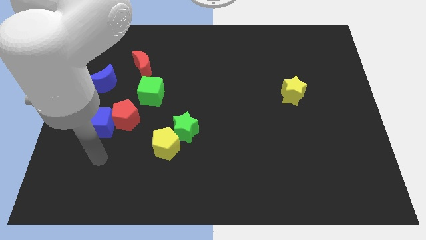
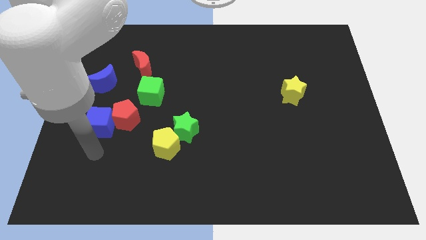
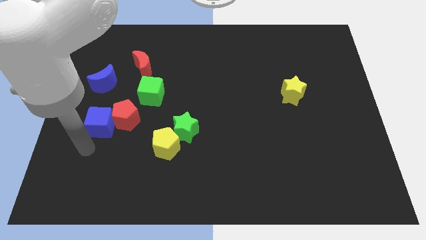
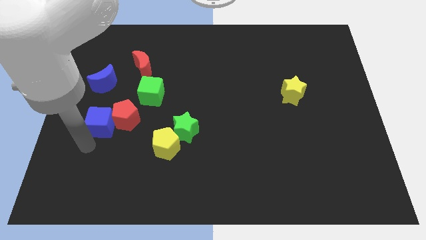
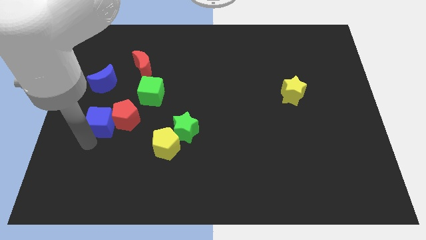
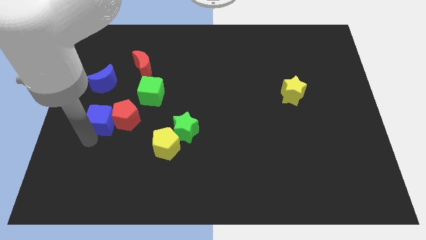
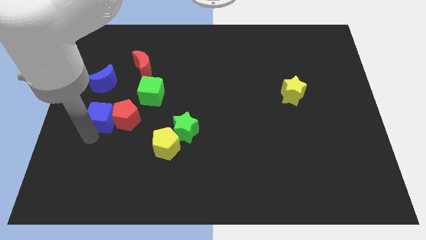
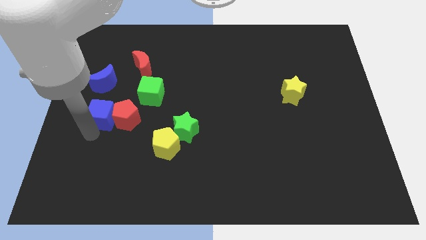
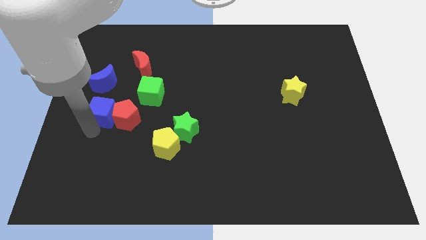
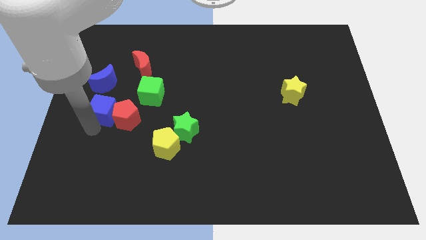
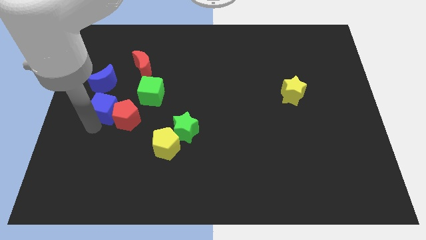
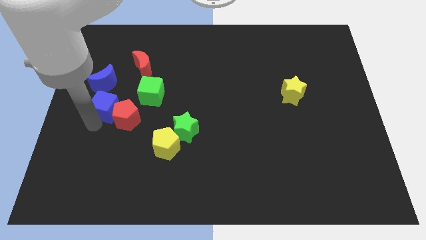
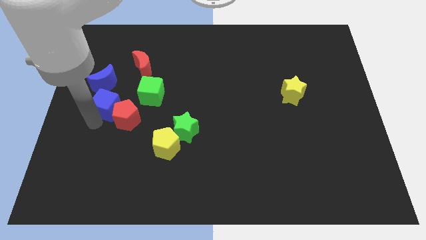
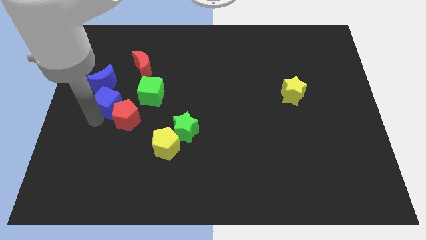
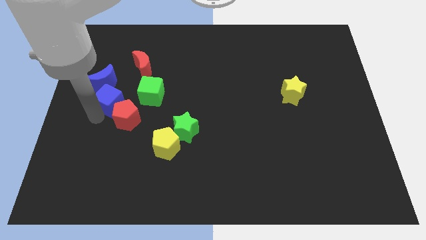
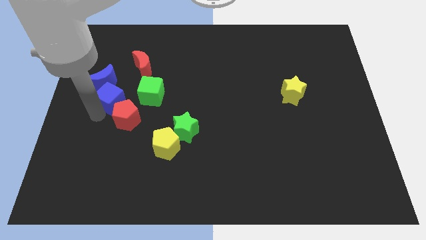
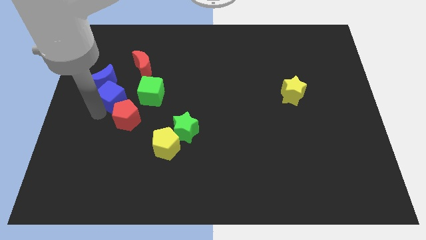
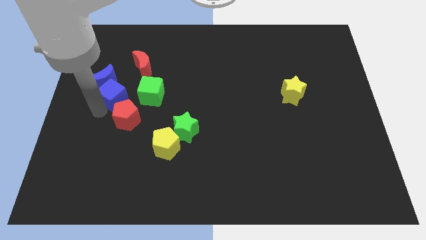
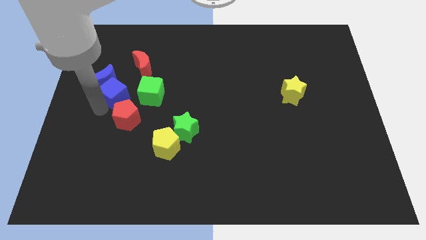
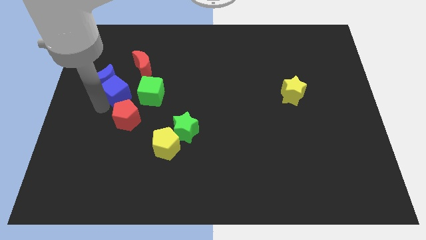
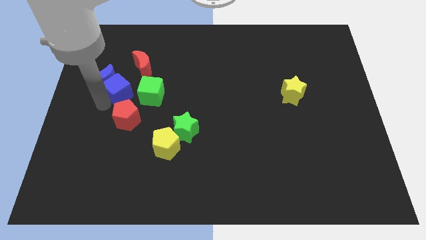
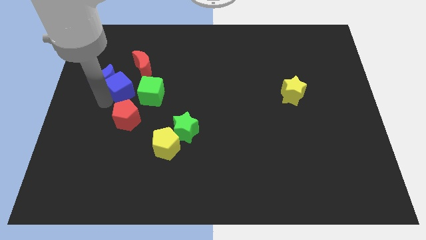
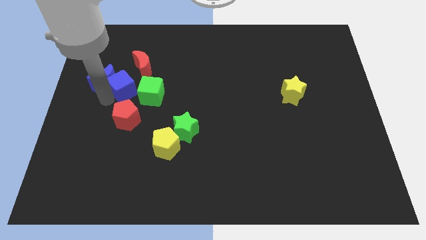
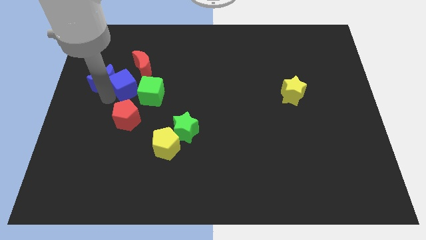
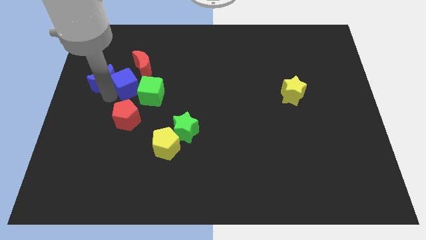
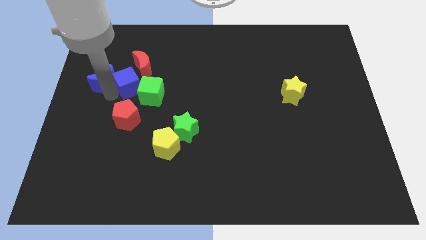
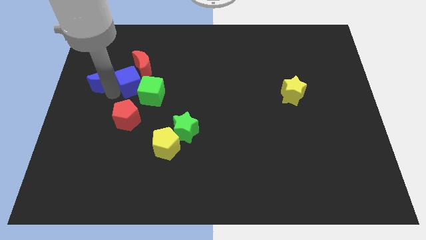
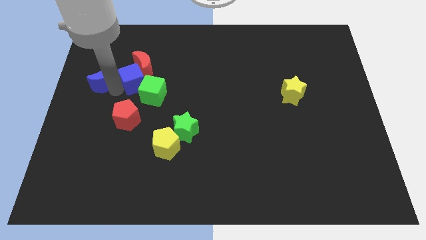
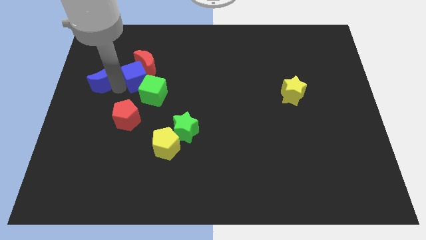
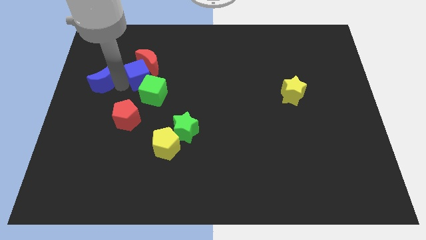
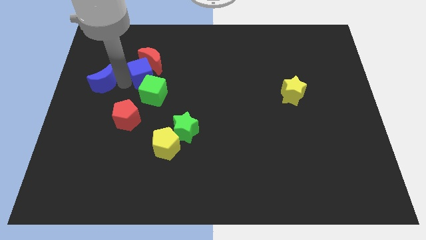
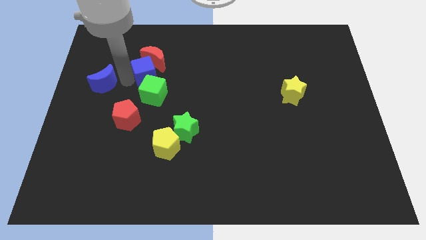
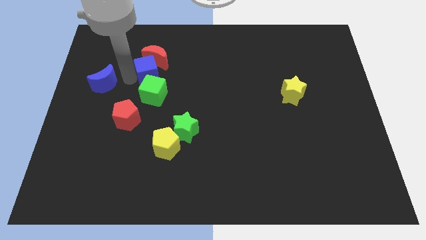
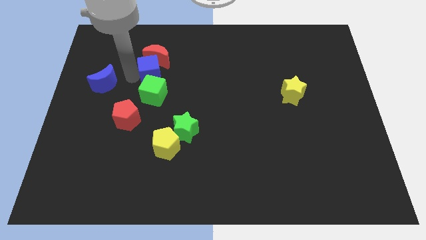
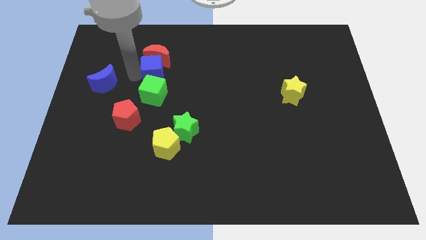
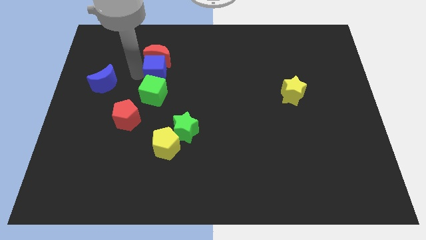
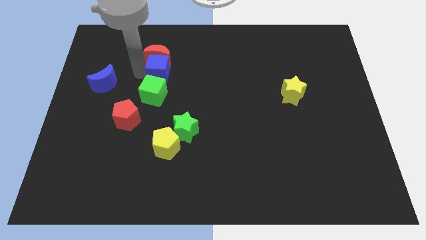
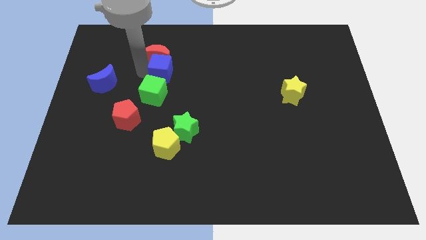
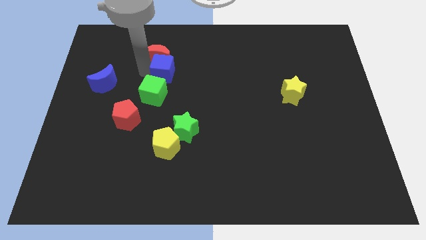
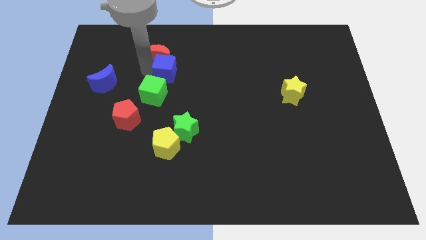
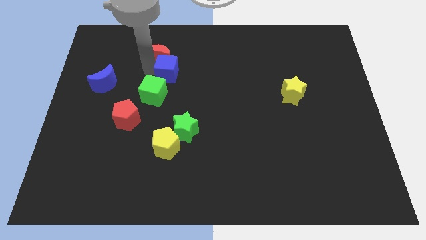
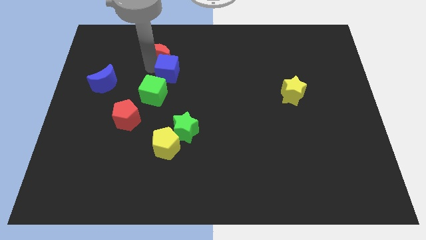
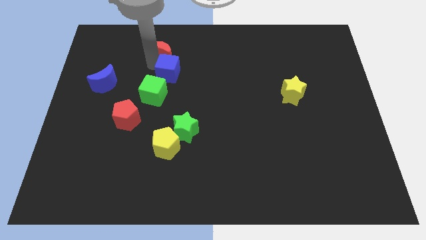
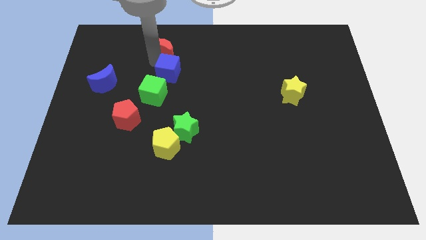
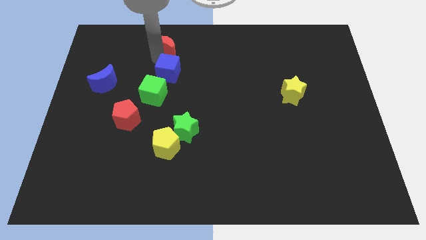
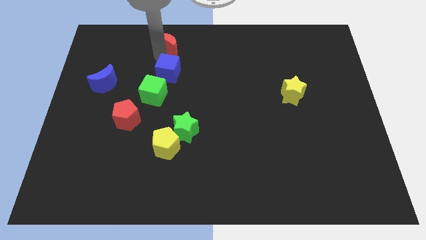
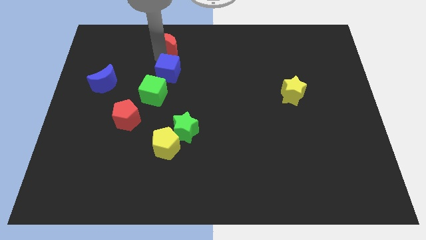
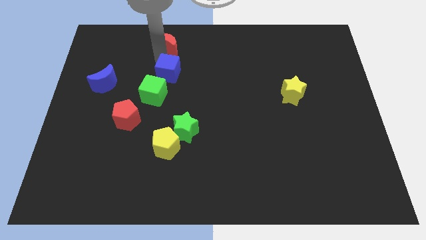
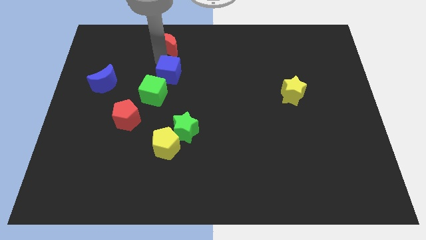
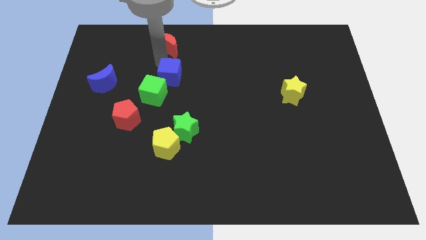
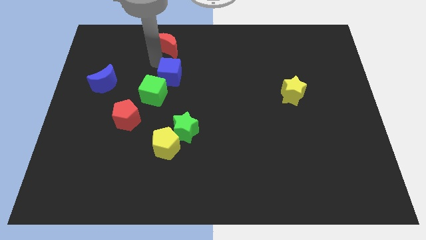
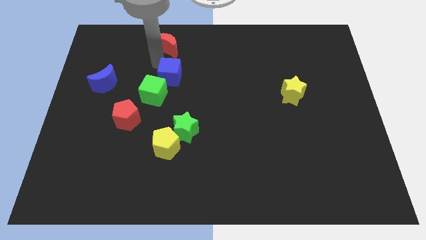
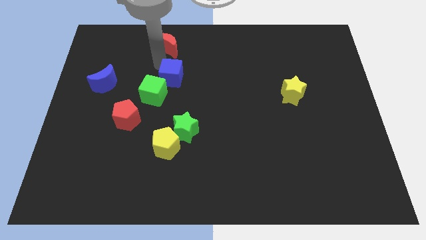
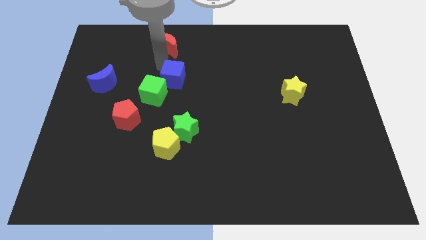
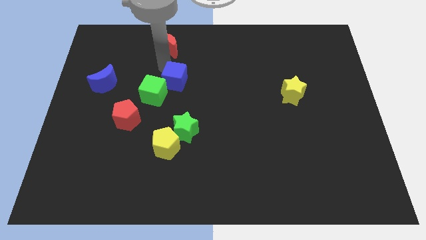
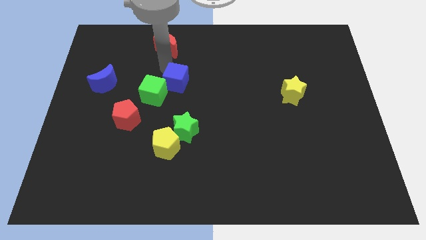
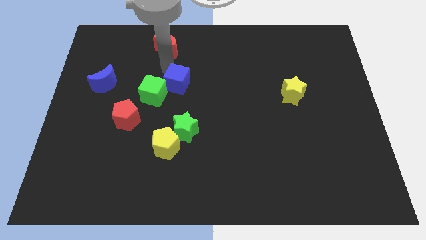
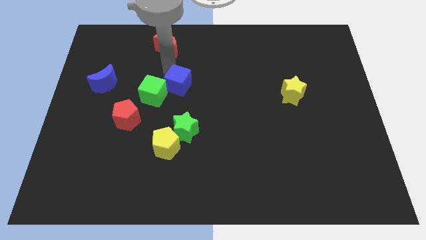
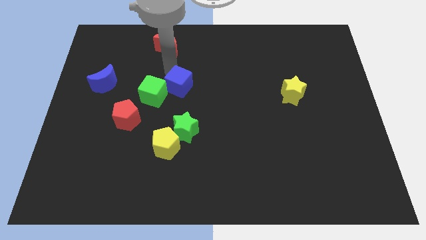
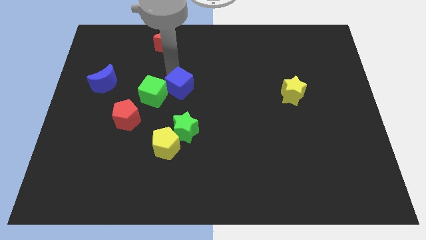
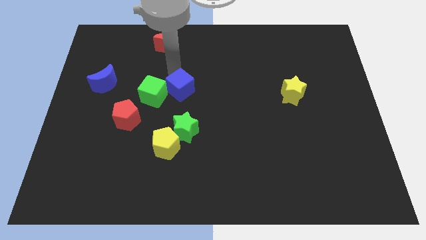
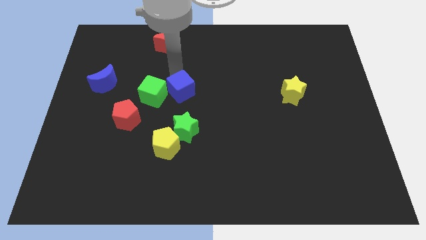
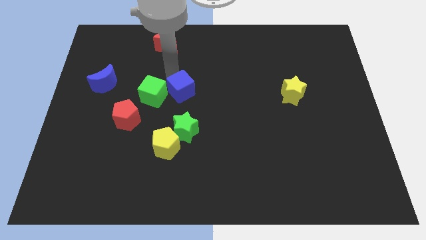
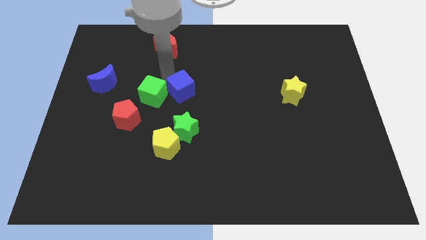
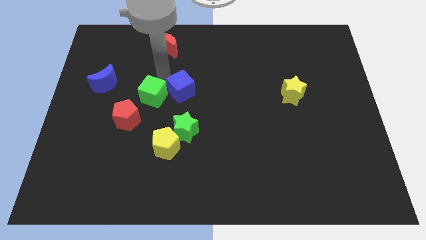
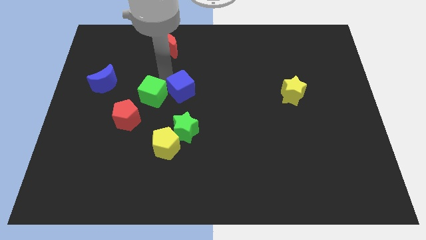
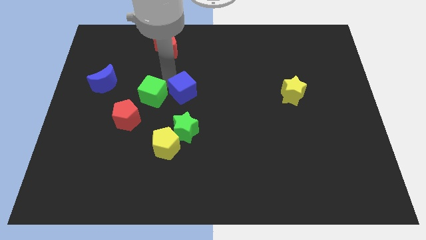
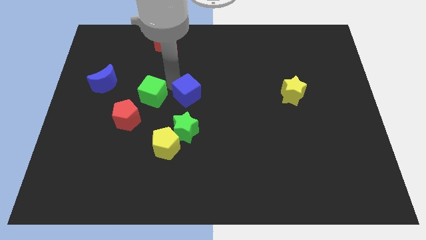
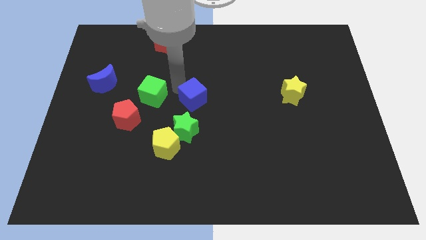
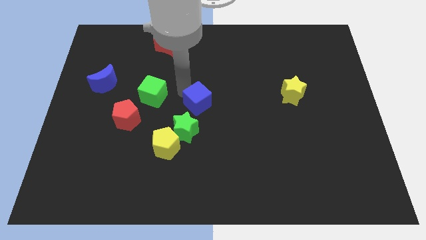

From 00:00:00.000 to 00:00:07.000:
move the blue cube to the top right of the green star
